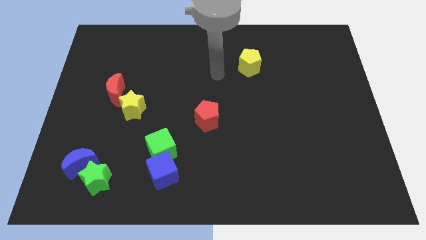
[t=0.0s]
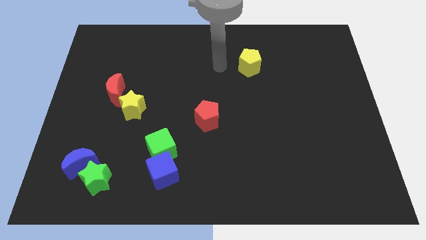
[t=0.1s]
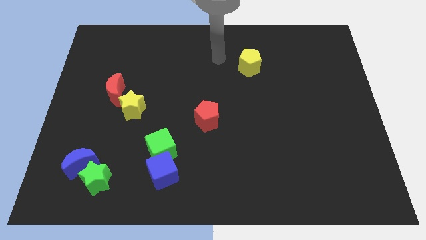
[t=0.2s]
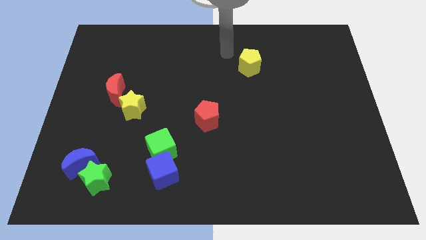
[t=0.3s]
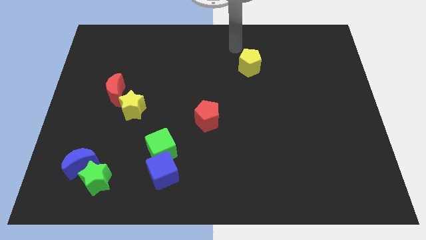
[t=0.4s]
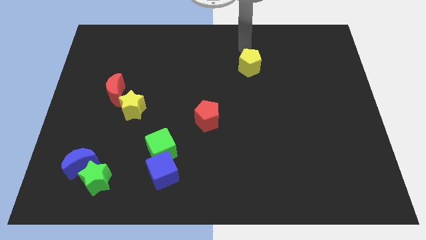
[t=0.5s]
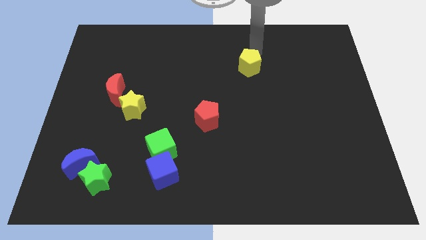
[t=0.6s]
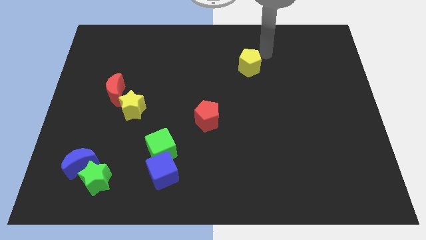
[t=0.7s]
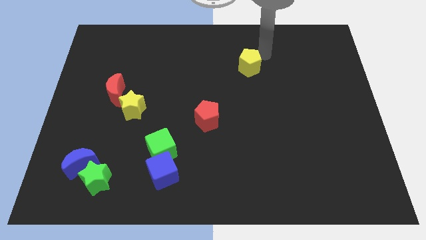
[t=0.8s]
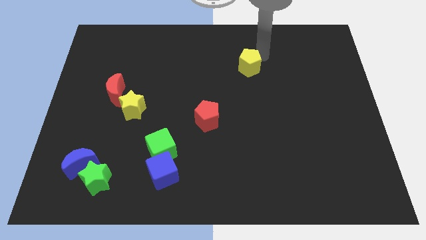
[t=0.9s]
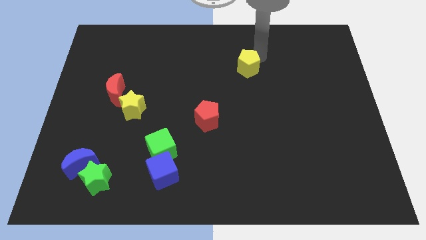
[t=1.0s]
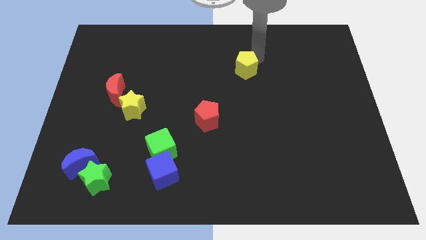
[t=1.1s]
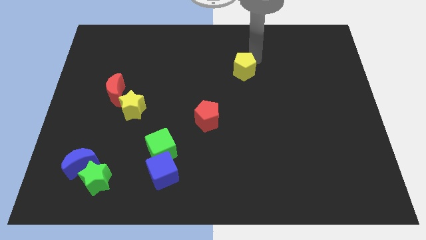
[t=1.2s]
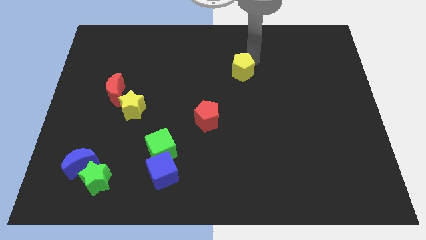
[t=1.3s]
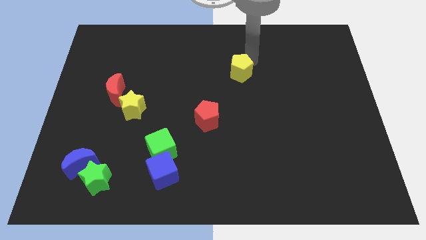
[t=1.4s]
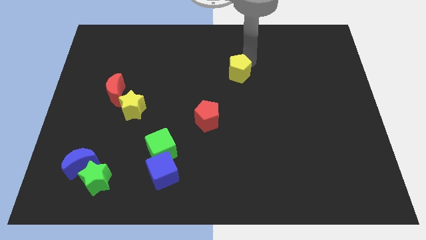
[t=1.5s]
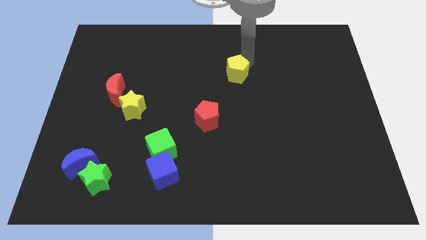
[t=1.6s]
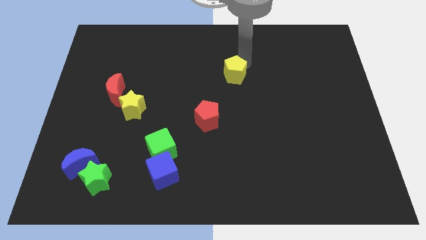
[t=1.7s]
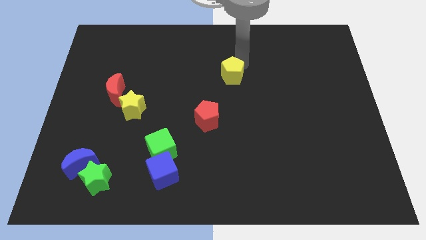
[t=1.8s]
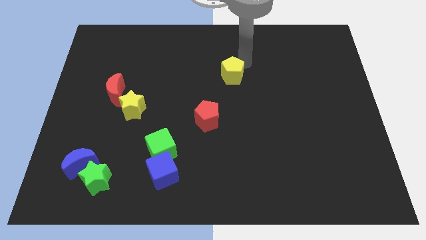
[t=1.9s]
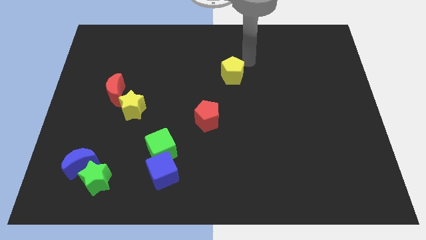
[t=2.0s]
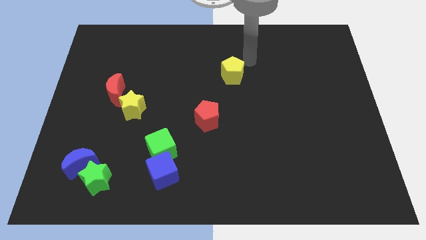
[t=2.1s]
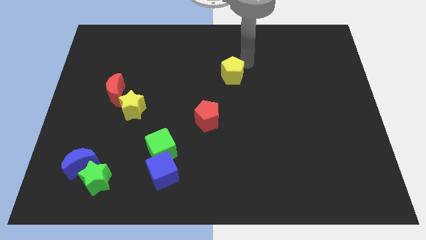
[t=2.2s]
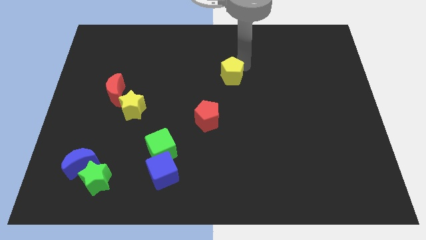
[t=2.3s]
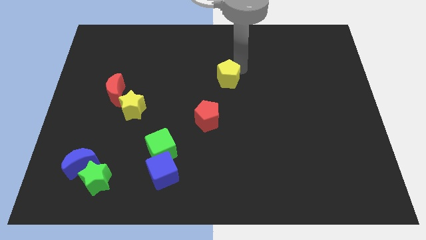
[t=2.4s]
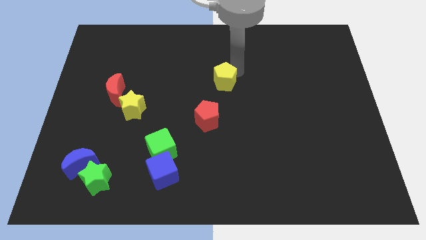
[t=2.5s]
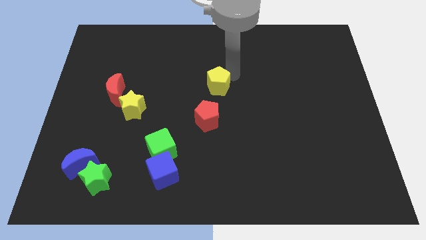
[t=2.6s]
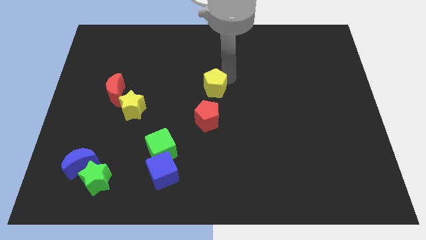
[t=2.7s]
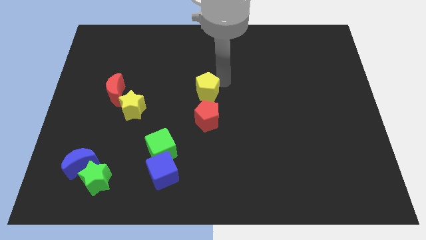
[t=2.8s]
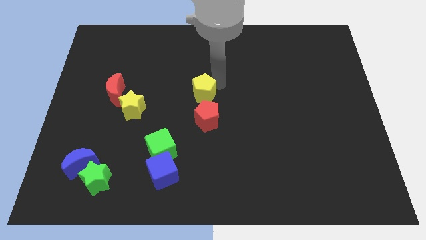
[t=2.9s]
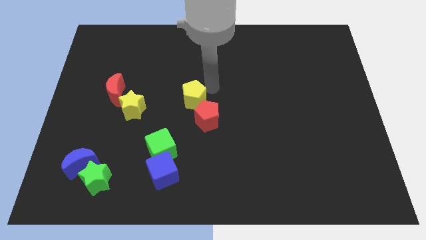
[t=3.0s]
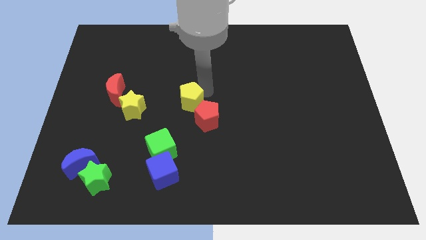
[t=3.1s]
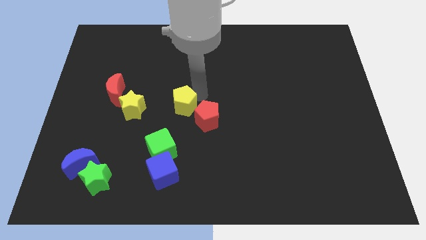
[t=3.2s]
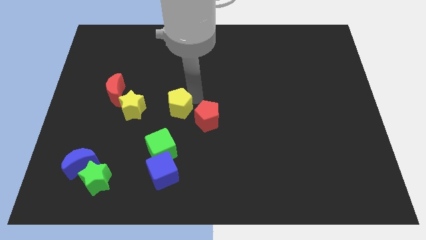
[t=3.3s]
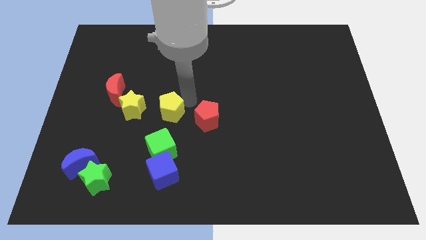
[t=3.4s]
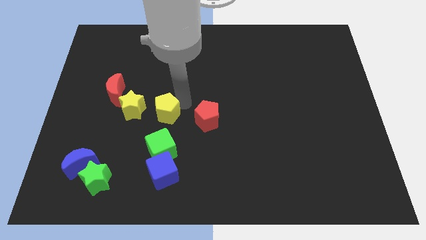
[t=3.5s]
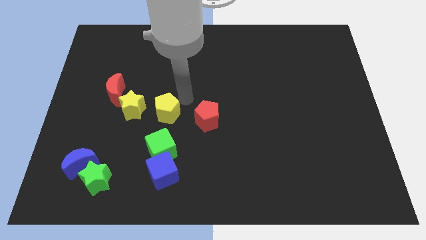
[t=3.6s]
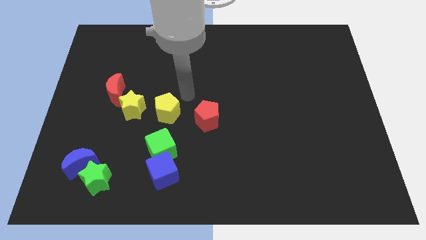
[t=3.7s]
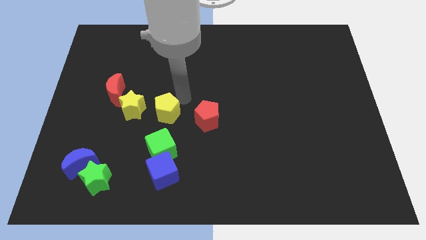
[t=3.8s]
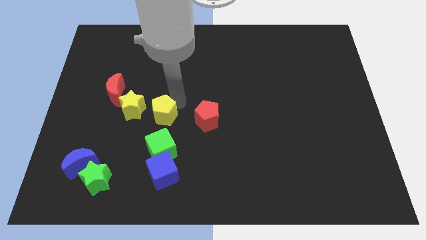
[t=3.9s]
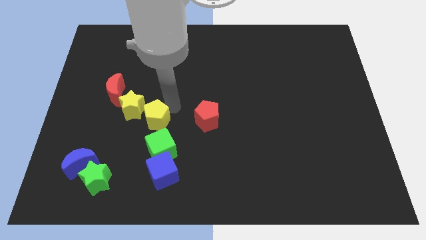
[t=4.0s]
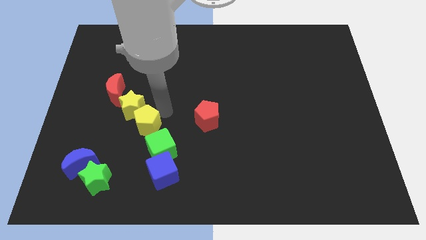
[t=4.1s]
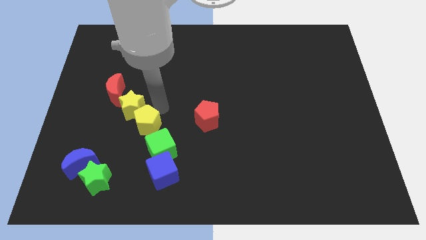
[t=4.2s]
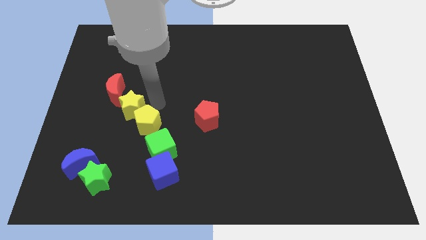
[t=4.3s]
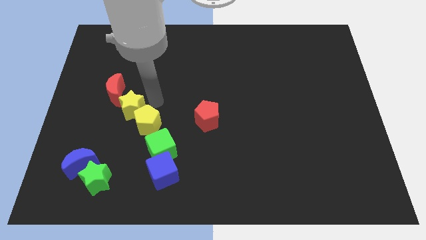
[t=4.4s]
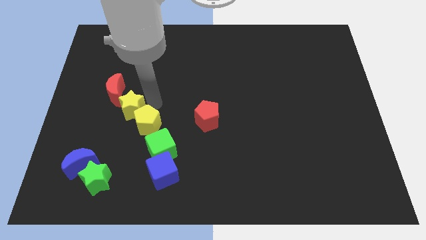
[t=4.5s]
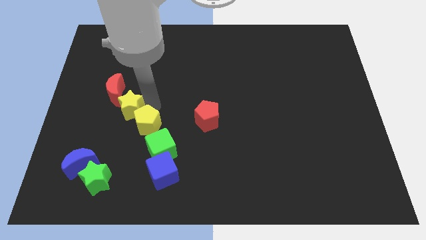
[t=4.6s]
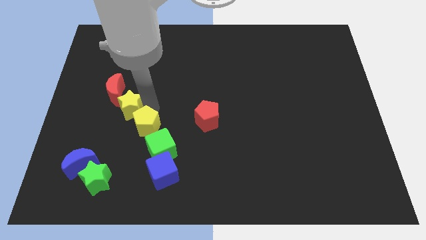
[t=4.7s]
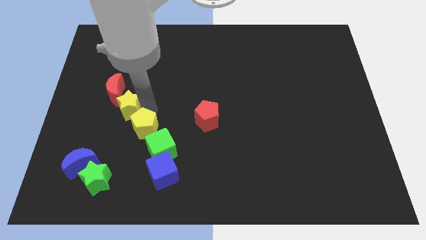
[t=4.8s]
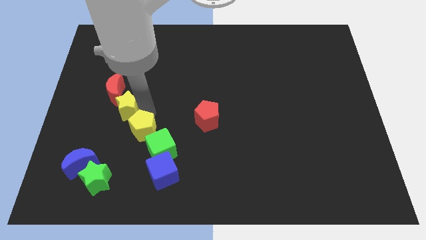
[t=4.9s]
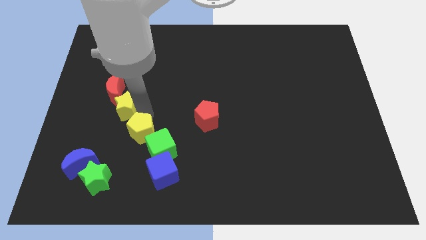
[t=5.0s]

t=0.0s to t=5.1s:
move the yellow pentagon to the top left side of the blue cube
